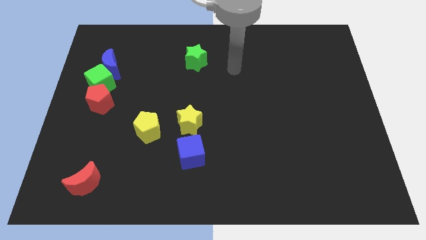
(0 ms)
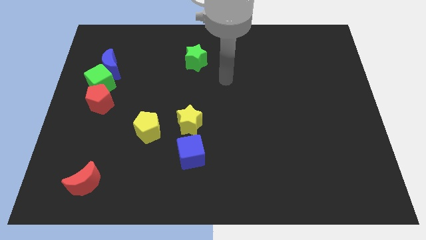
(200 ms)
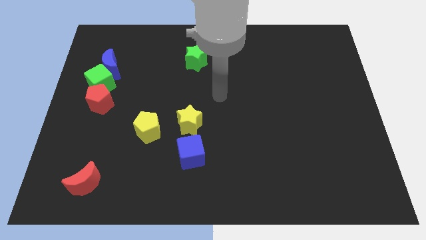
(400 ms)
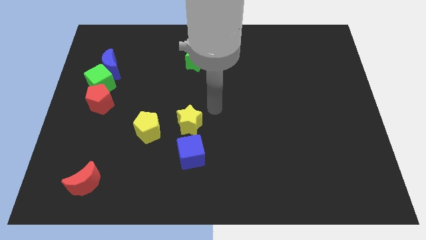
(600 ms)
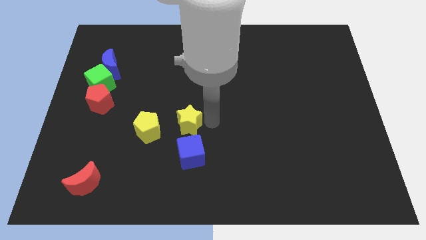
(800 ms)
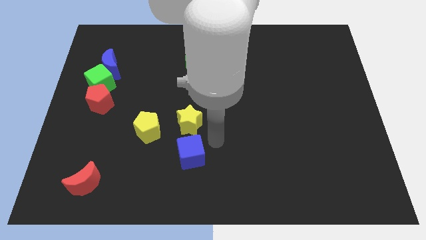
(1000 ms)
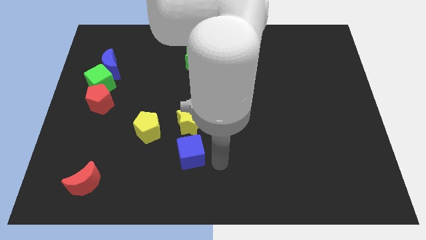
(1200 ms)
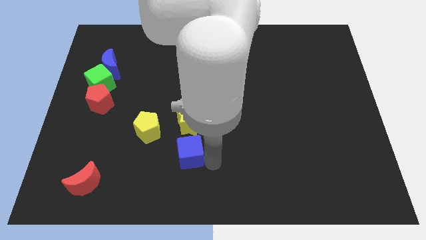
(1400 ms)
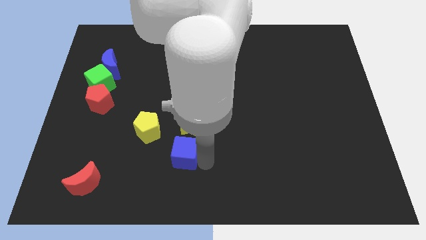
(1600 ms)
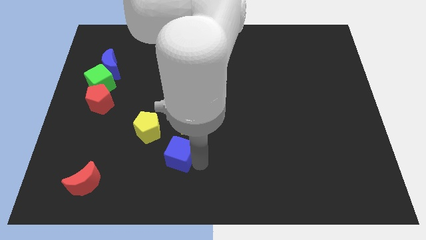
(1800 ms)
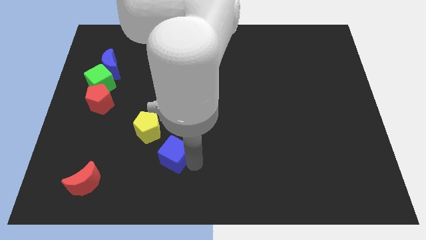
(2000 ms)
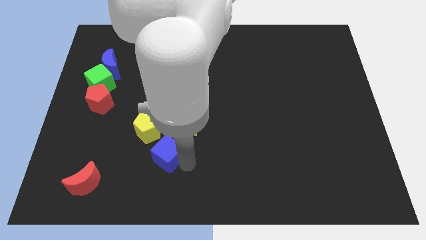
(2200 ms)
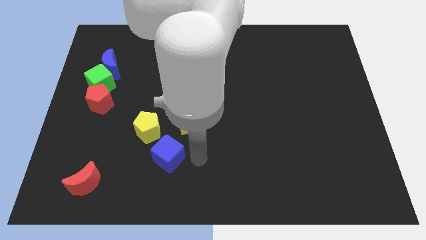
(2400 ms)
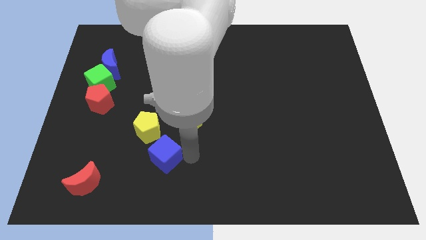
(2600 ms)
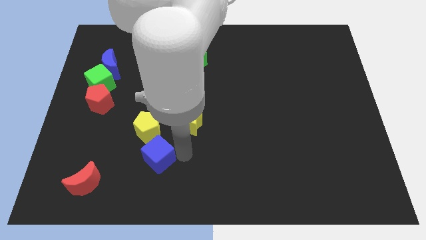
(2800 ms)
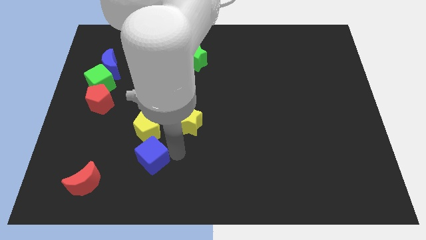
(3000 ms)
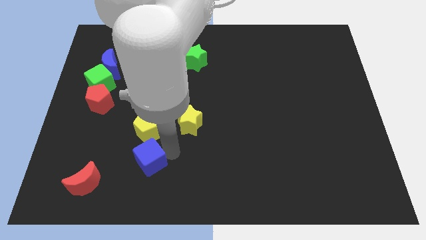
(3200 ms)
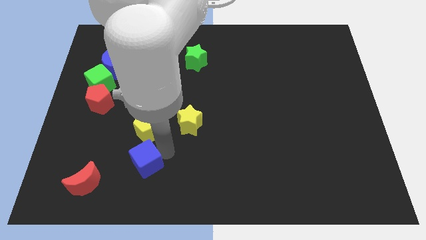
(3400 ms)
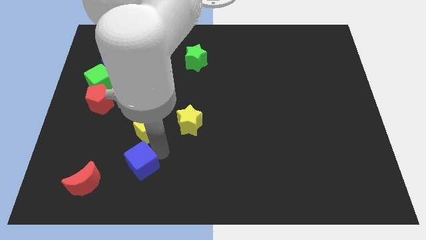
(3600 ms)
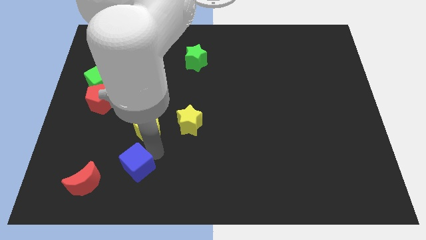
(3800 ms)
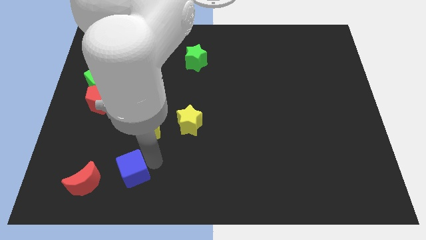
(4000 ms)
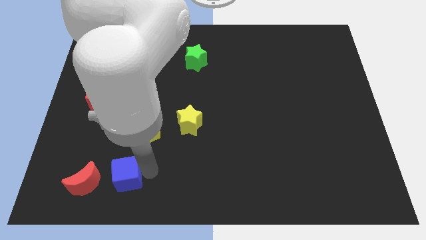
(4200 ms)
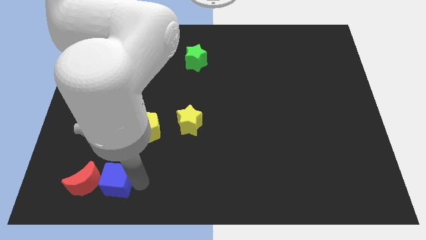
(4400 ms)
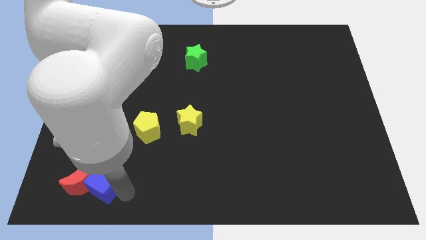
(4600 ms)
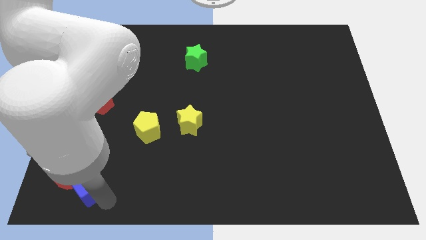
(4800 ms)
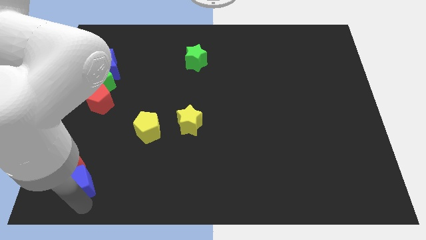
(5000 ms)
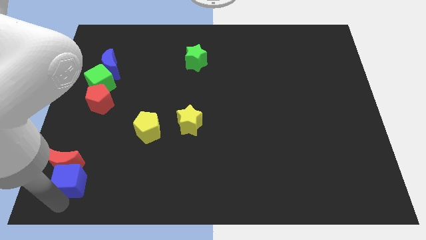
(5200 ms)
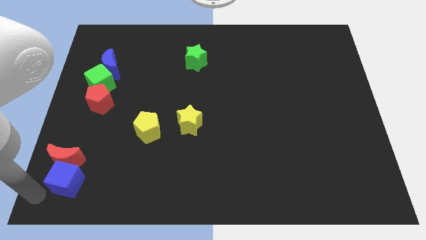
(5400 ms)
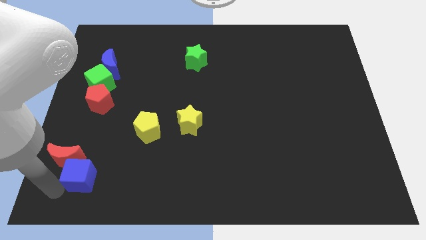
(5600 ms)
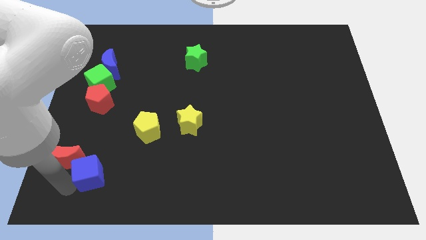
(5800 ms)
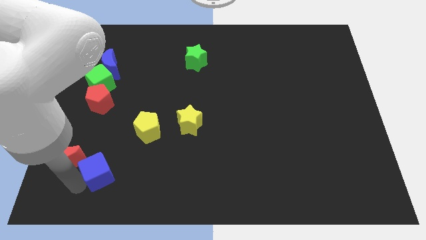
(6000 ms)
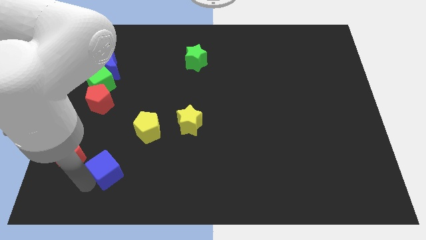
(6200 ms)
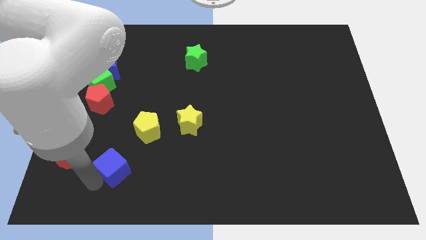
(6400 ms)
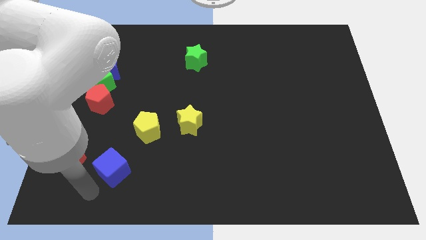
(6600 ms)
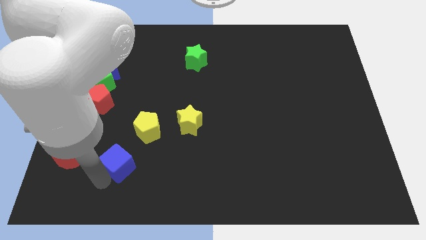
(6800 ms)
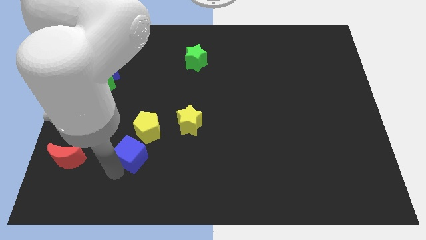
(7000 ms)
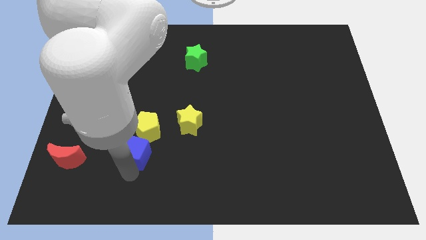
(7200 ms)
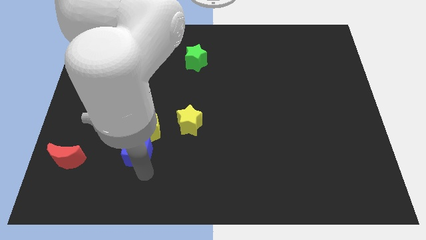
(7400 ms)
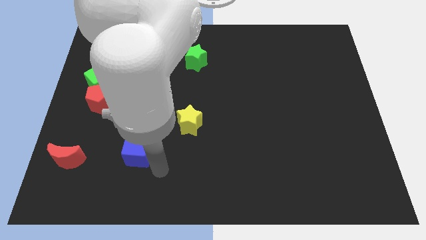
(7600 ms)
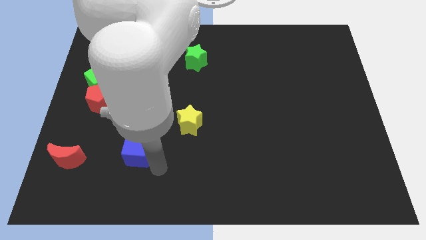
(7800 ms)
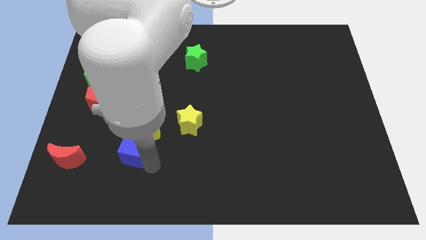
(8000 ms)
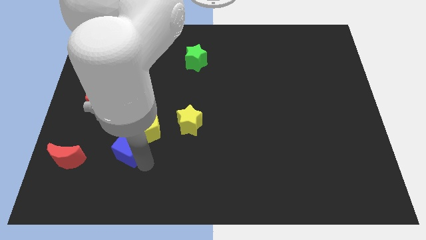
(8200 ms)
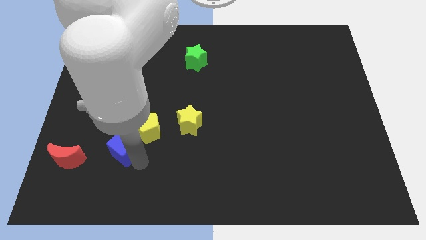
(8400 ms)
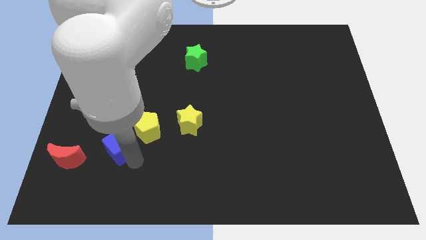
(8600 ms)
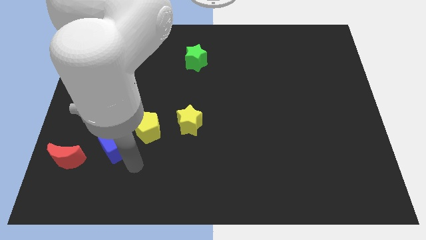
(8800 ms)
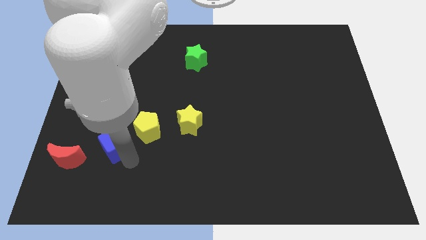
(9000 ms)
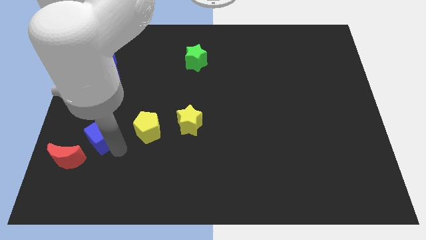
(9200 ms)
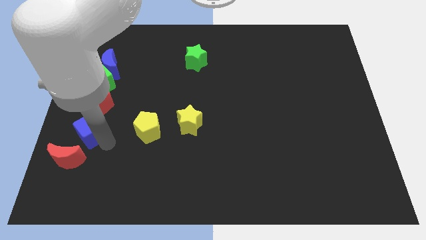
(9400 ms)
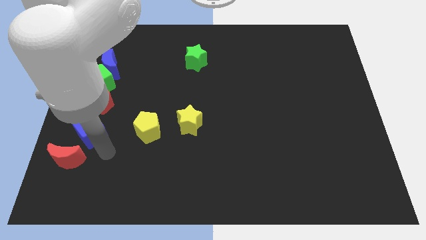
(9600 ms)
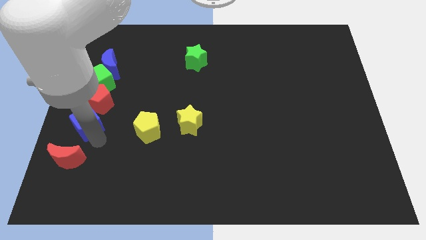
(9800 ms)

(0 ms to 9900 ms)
slide the blue cube to the center left

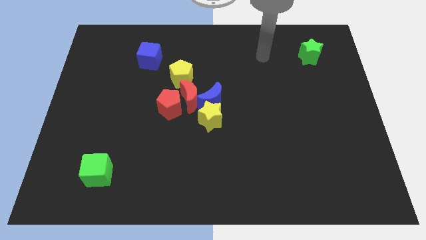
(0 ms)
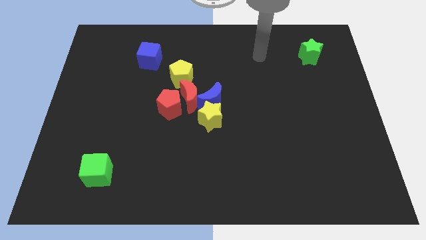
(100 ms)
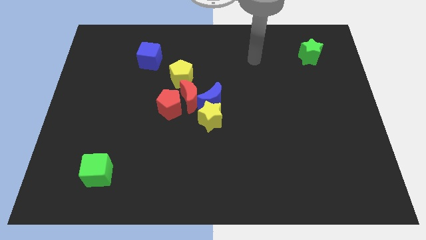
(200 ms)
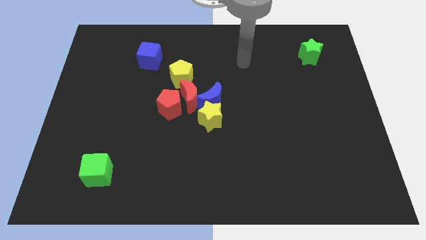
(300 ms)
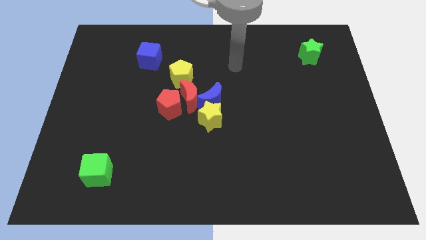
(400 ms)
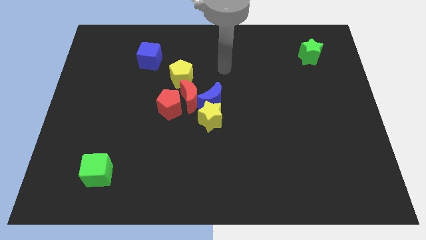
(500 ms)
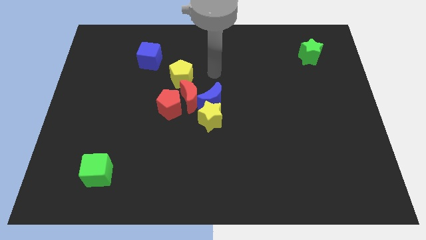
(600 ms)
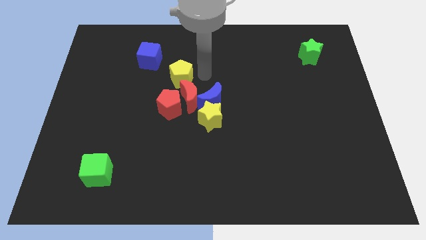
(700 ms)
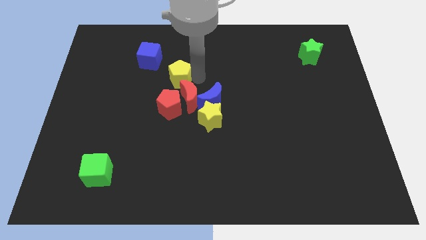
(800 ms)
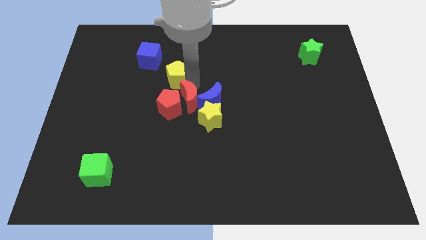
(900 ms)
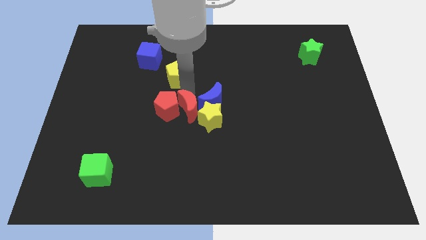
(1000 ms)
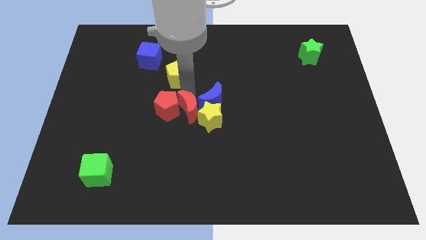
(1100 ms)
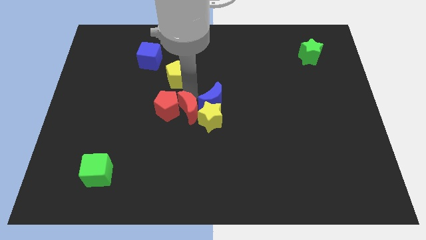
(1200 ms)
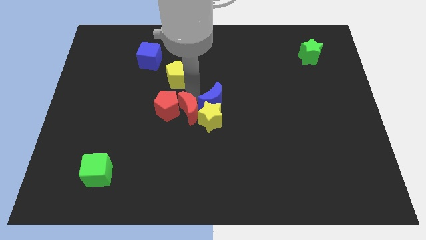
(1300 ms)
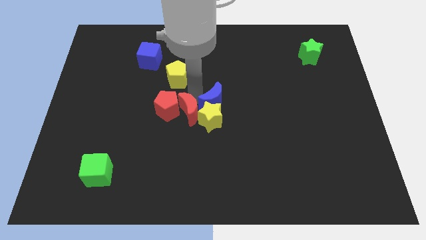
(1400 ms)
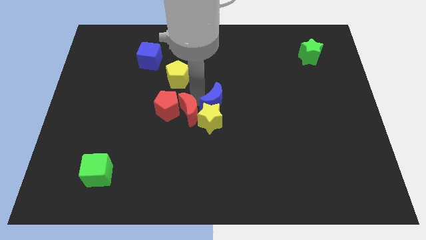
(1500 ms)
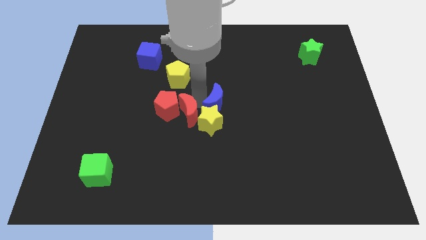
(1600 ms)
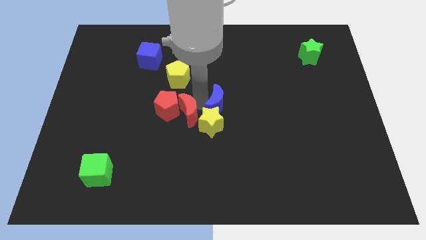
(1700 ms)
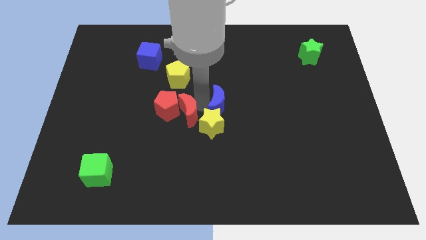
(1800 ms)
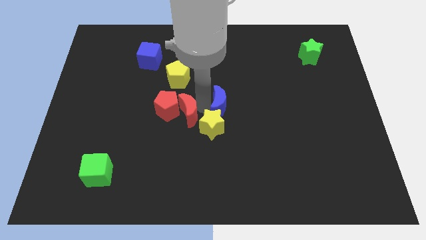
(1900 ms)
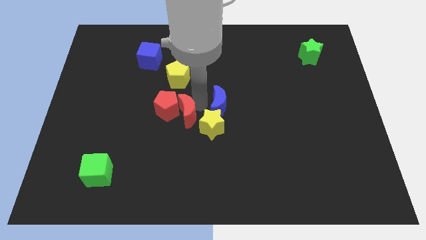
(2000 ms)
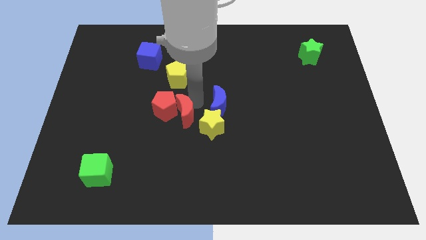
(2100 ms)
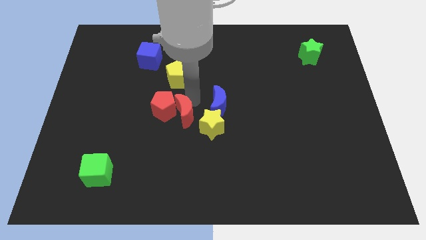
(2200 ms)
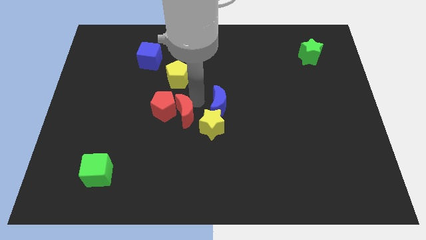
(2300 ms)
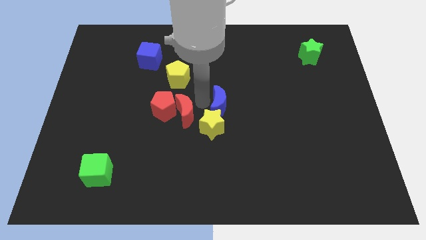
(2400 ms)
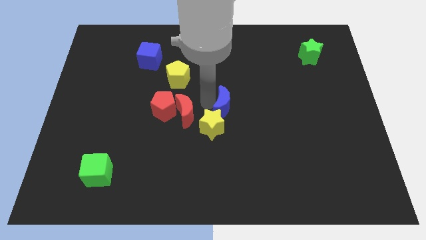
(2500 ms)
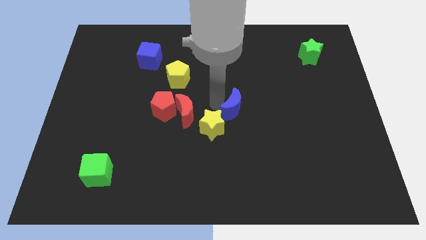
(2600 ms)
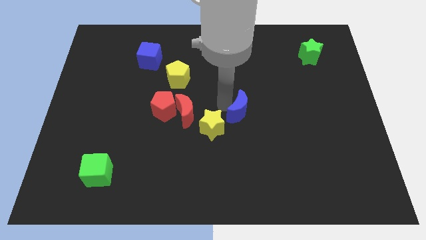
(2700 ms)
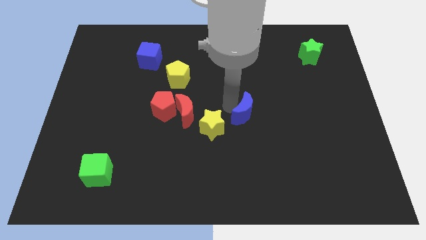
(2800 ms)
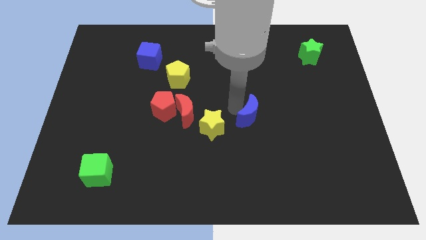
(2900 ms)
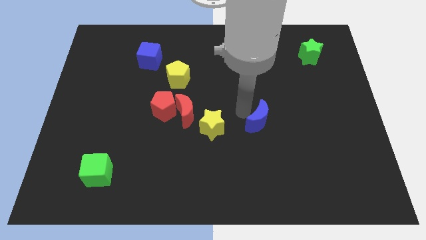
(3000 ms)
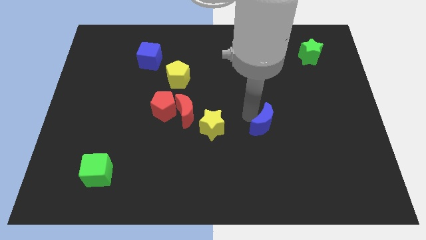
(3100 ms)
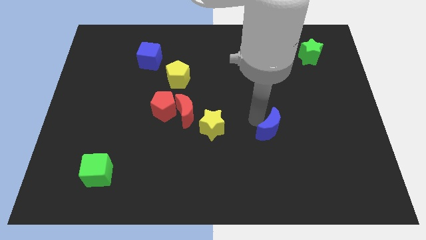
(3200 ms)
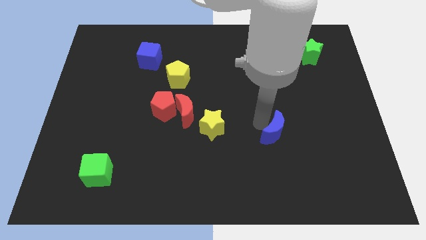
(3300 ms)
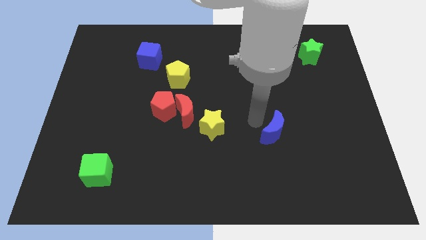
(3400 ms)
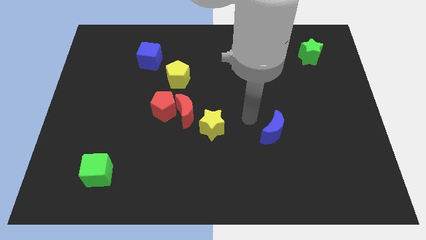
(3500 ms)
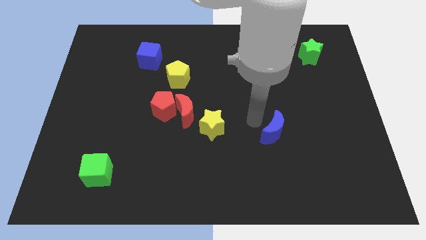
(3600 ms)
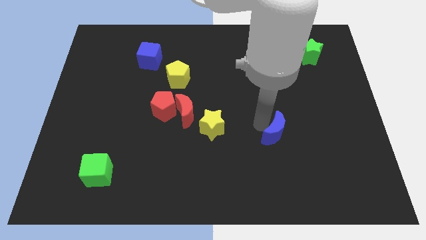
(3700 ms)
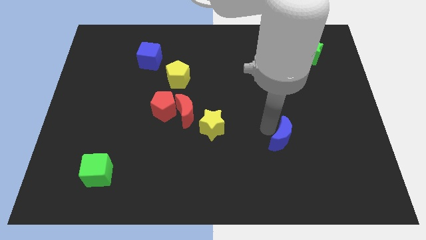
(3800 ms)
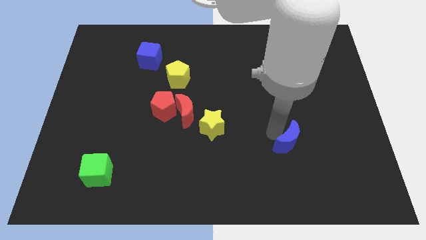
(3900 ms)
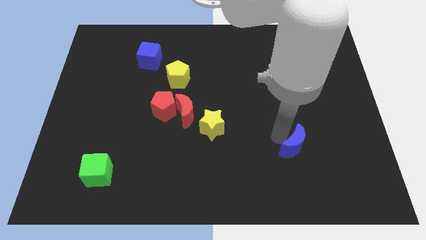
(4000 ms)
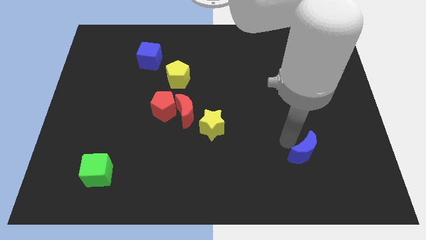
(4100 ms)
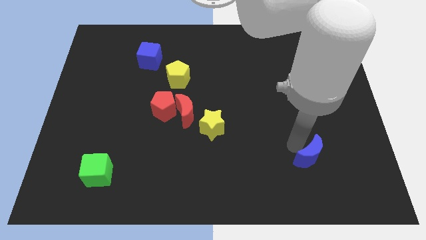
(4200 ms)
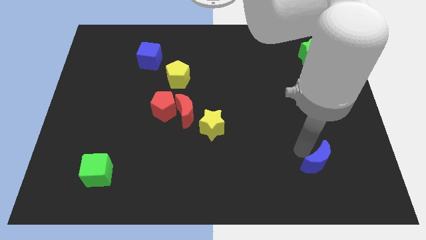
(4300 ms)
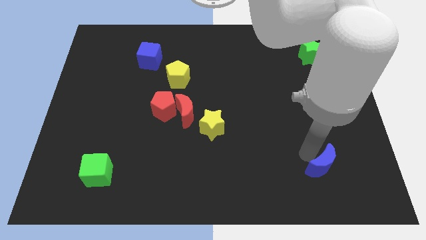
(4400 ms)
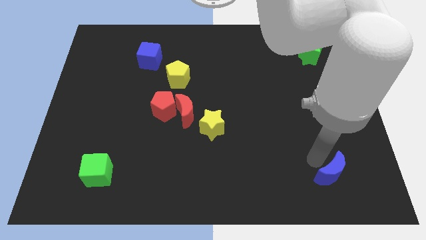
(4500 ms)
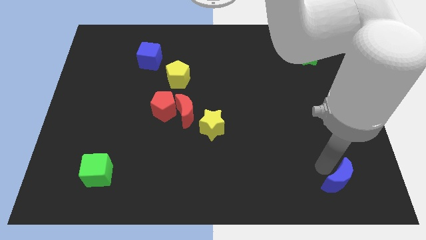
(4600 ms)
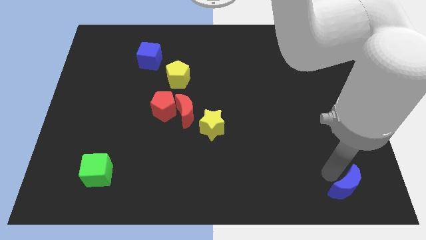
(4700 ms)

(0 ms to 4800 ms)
move the blue moon to the bottom right
